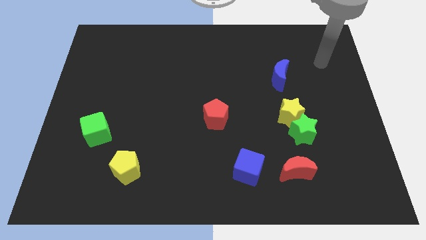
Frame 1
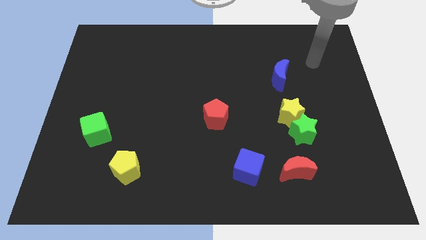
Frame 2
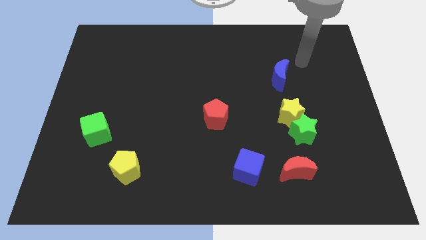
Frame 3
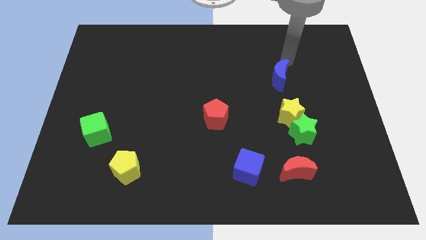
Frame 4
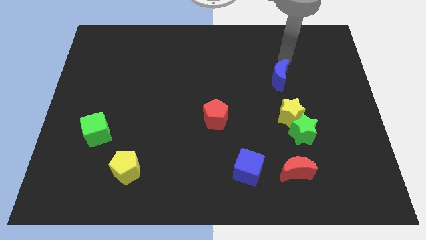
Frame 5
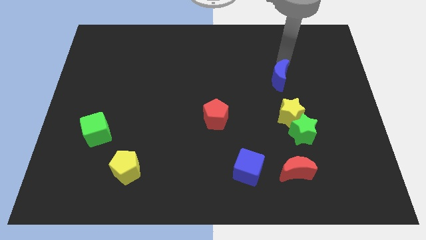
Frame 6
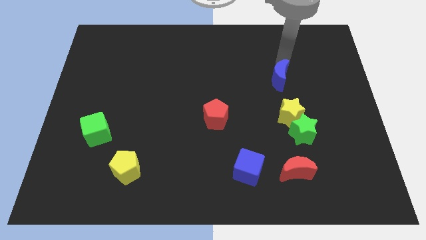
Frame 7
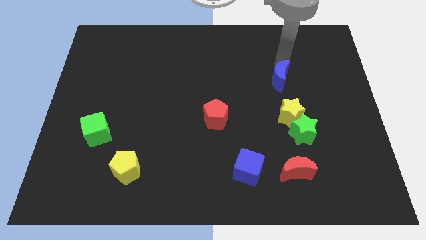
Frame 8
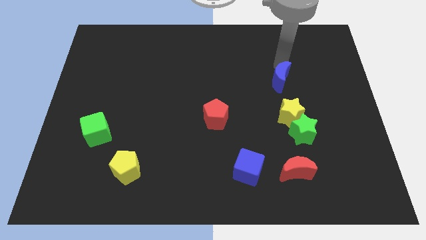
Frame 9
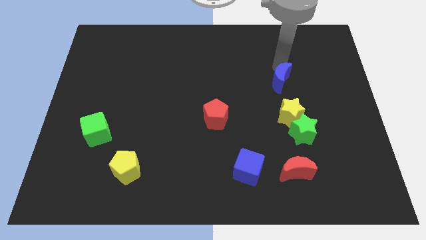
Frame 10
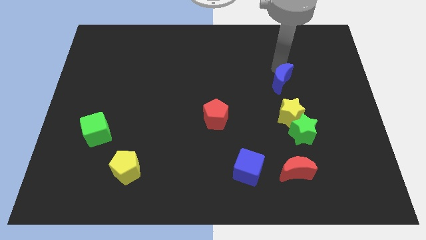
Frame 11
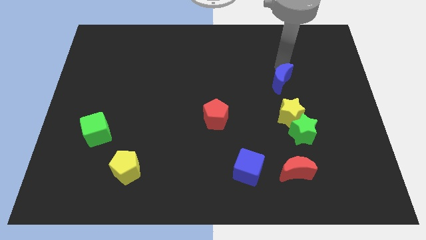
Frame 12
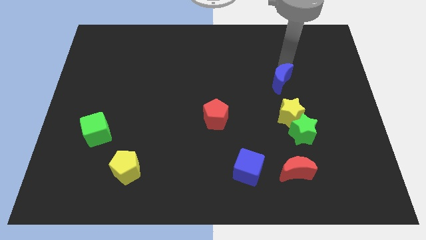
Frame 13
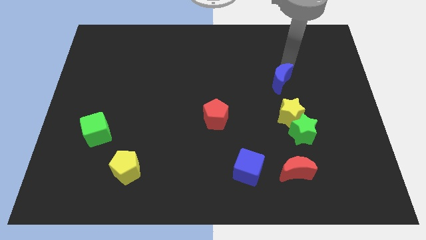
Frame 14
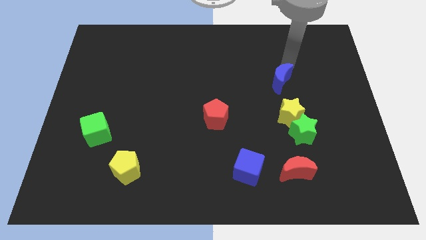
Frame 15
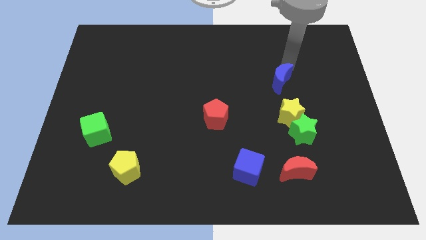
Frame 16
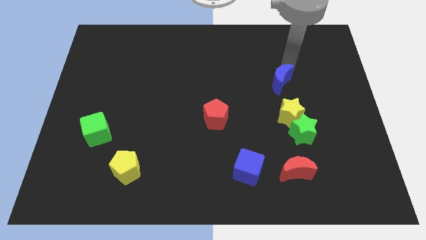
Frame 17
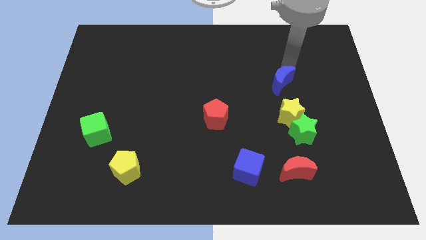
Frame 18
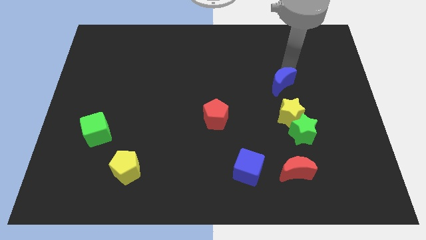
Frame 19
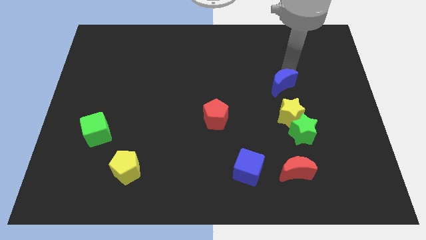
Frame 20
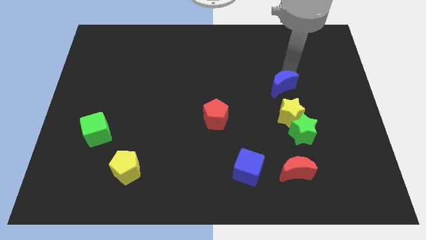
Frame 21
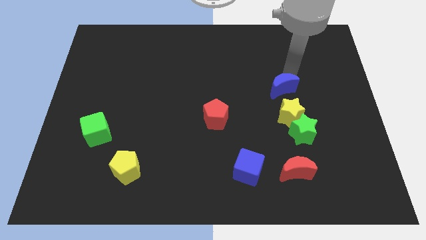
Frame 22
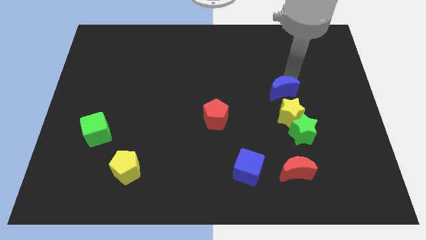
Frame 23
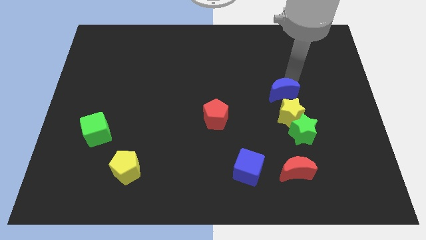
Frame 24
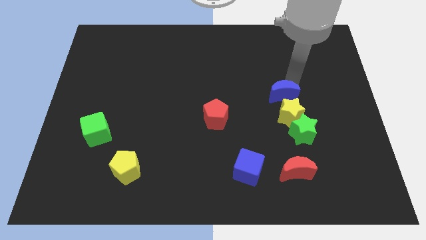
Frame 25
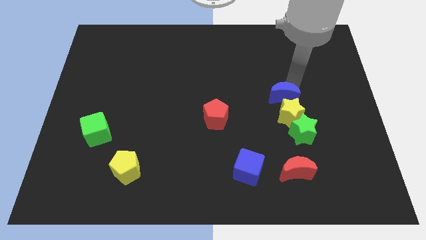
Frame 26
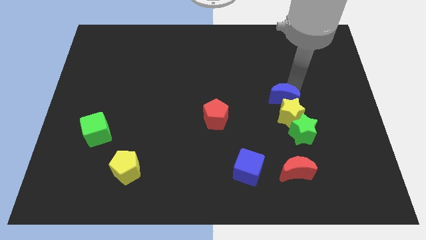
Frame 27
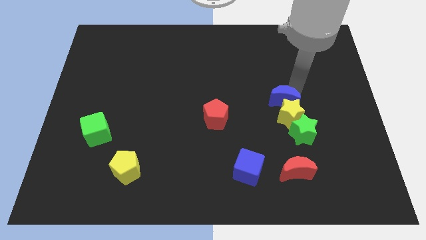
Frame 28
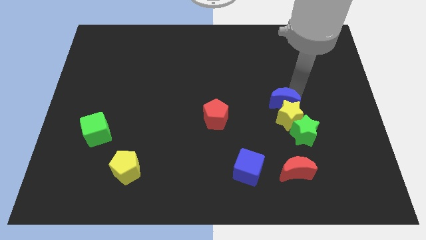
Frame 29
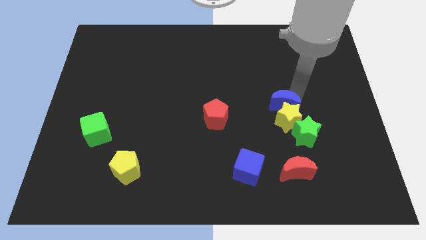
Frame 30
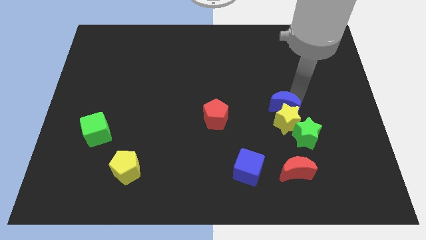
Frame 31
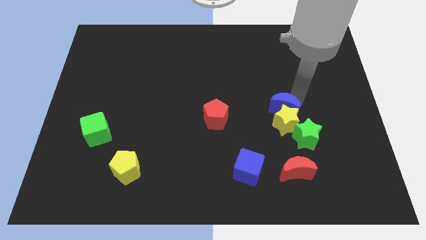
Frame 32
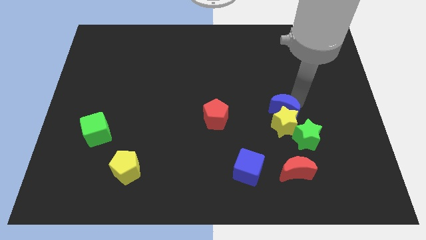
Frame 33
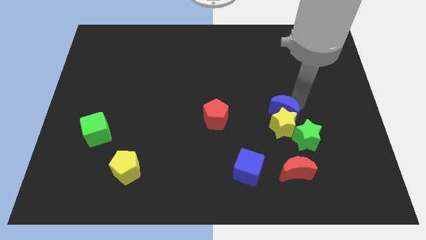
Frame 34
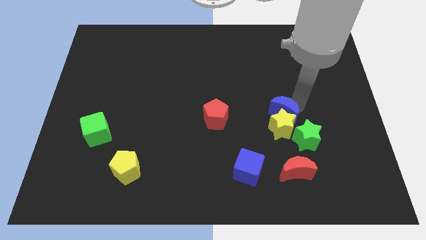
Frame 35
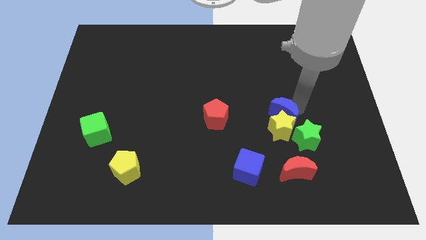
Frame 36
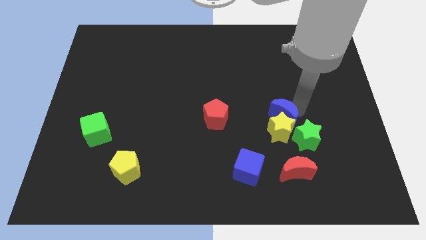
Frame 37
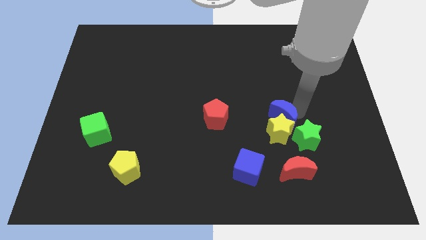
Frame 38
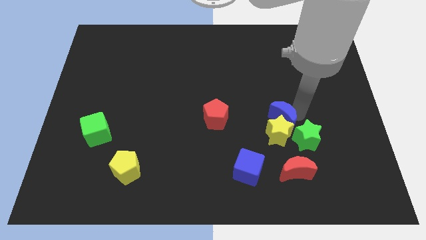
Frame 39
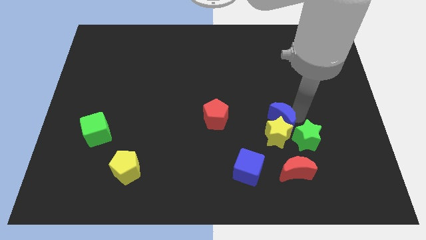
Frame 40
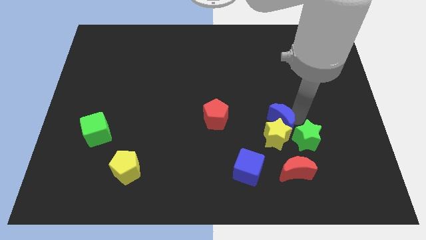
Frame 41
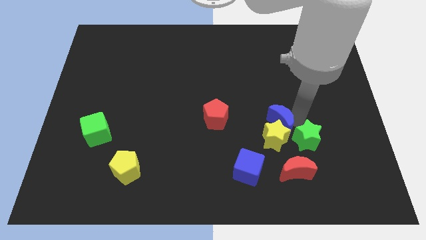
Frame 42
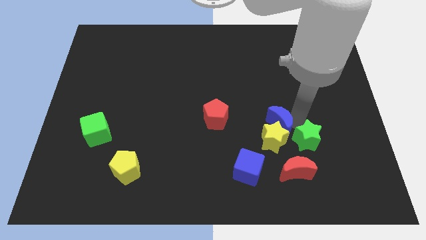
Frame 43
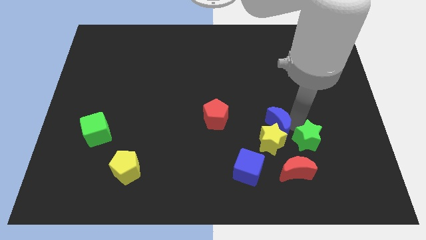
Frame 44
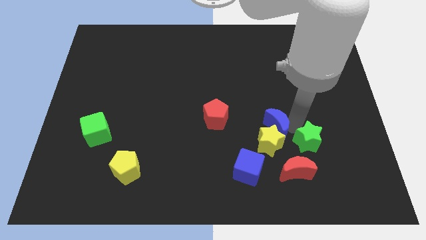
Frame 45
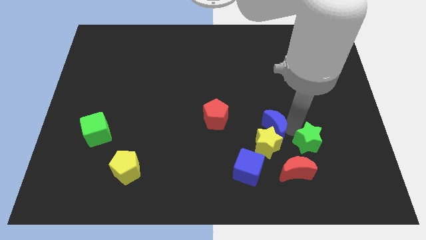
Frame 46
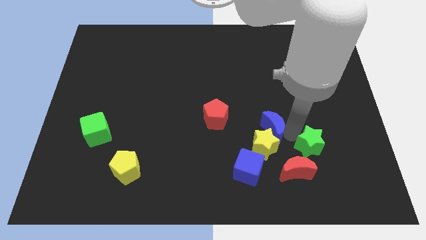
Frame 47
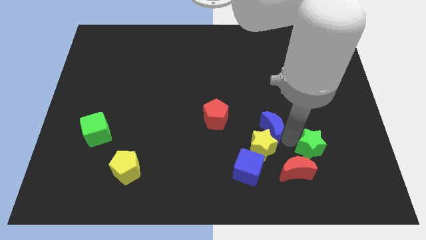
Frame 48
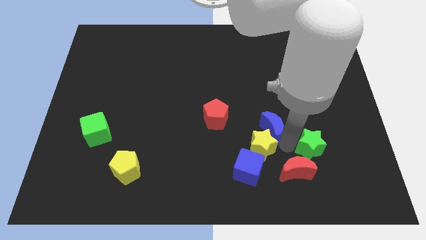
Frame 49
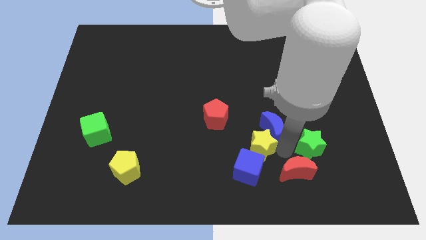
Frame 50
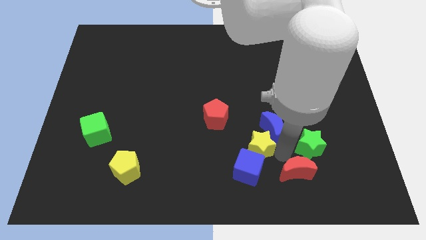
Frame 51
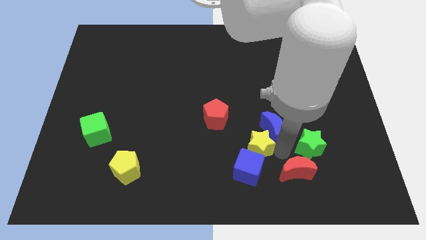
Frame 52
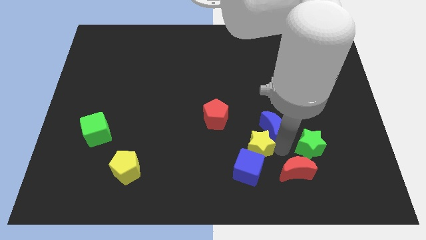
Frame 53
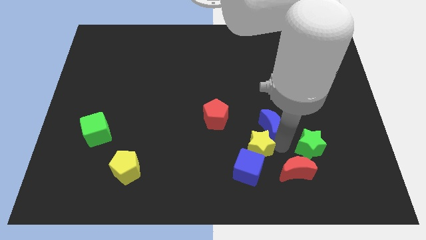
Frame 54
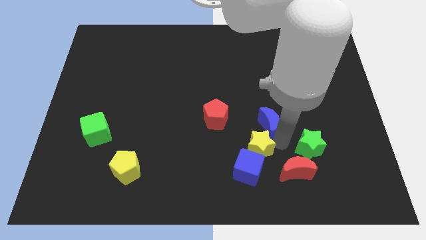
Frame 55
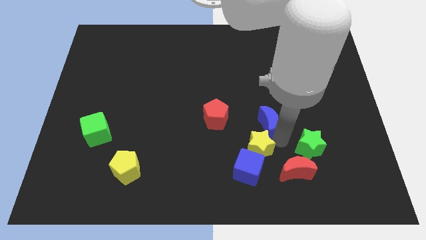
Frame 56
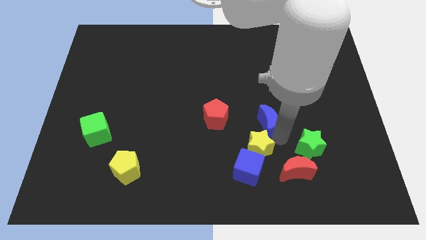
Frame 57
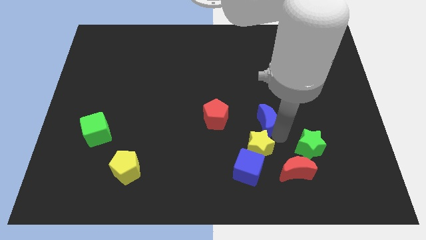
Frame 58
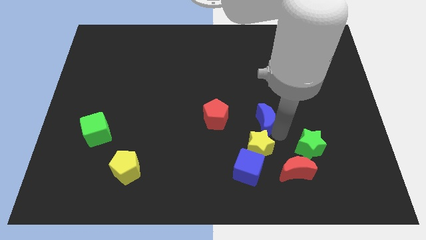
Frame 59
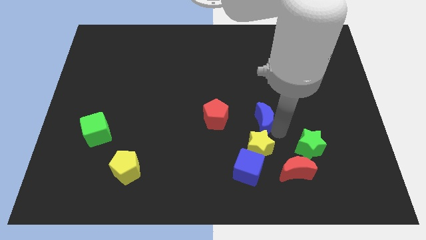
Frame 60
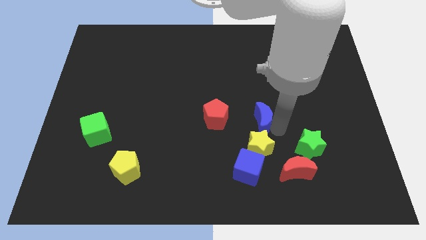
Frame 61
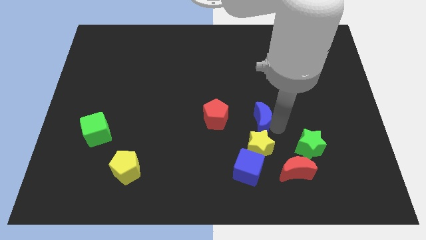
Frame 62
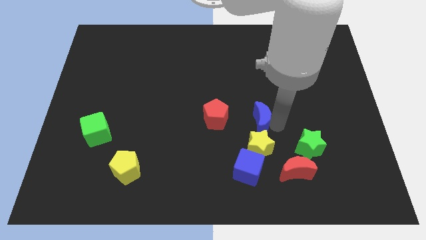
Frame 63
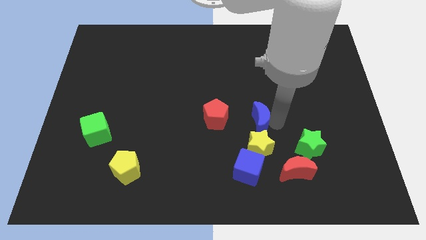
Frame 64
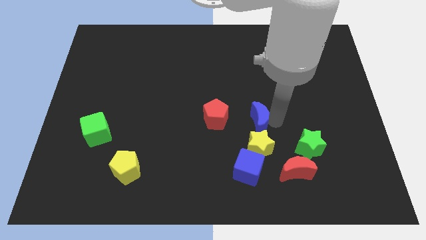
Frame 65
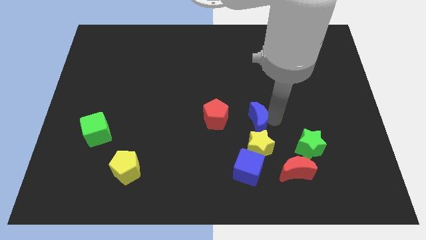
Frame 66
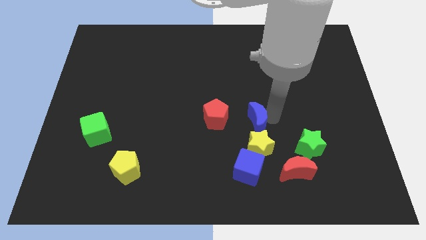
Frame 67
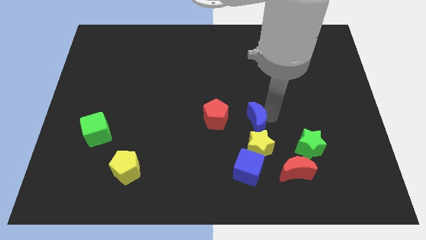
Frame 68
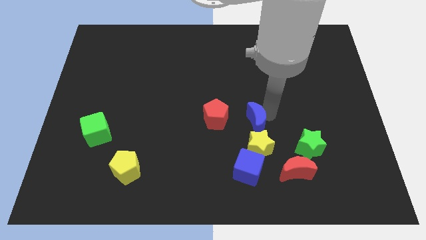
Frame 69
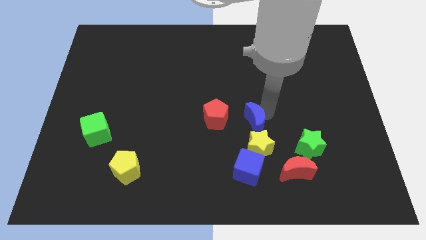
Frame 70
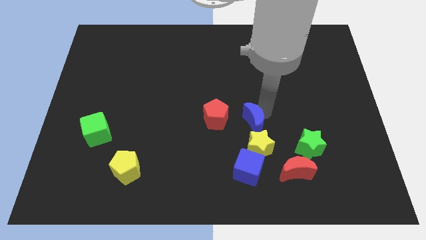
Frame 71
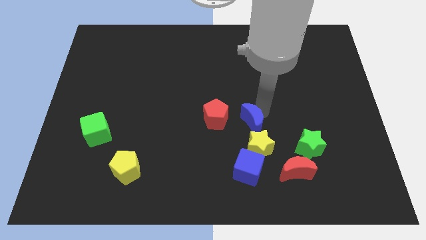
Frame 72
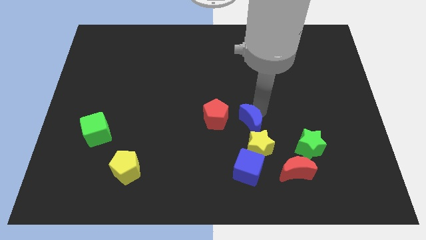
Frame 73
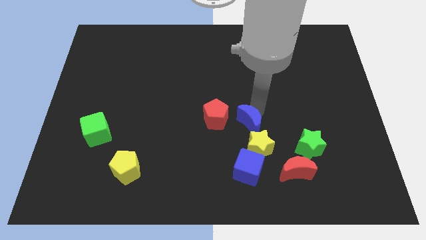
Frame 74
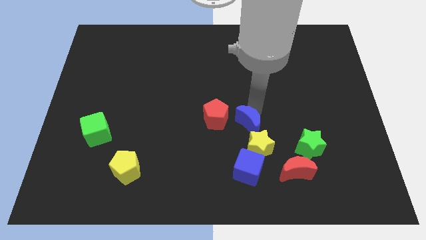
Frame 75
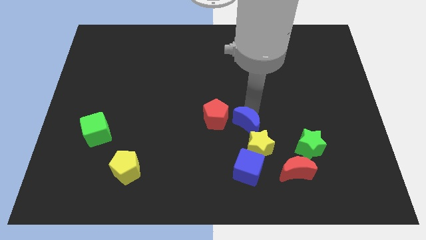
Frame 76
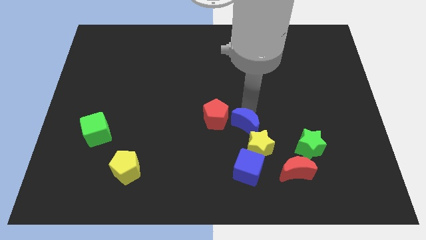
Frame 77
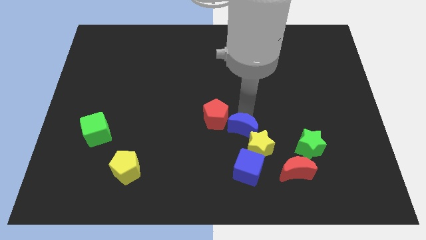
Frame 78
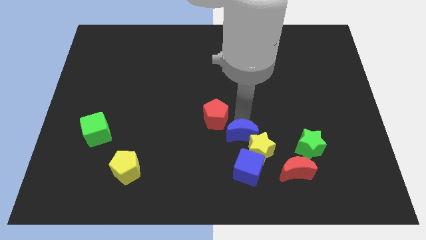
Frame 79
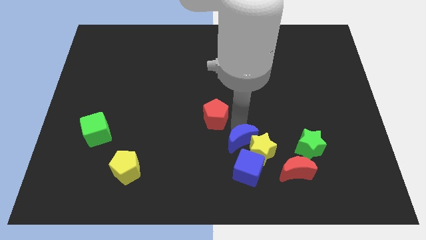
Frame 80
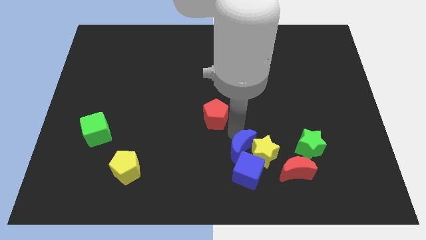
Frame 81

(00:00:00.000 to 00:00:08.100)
put the blue moon to the blue cube
